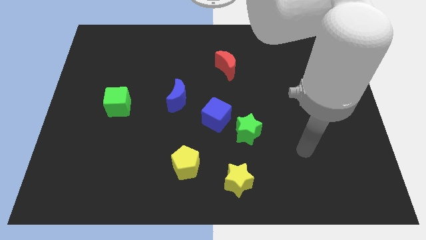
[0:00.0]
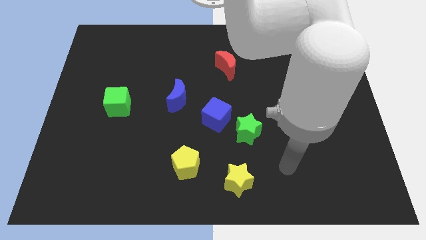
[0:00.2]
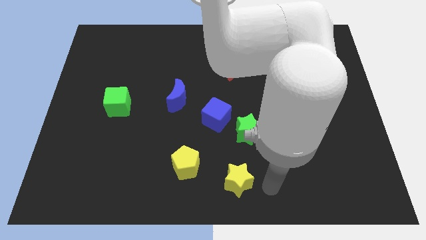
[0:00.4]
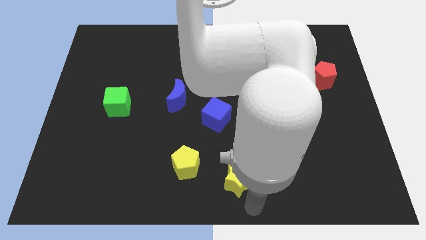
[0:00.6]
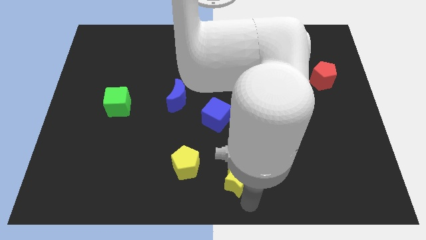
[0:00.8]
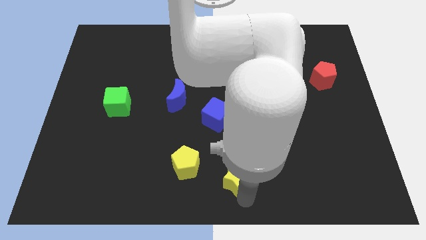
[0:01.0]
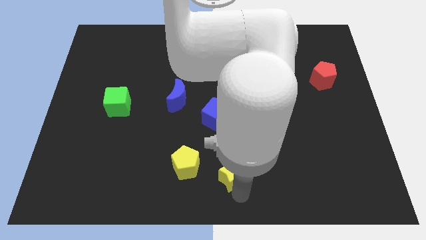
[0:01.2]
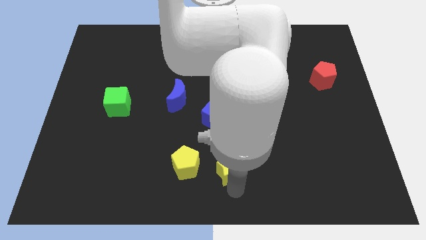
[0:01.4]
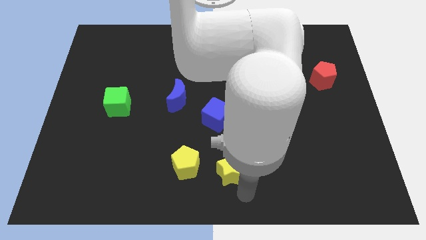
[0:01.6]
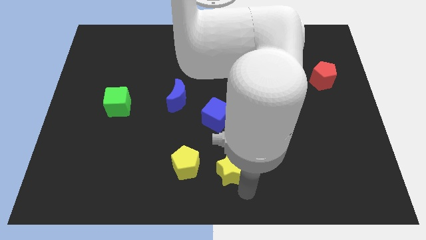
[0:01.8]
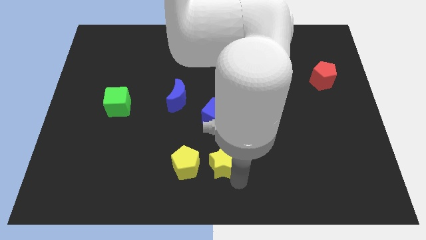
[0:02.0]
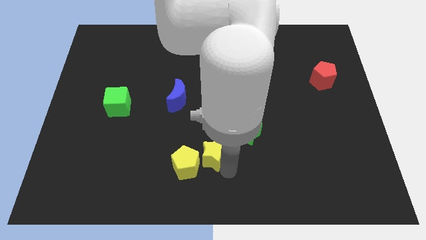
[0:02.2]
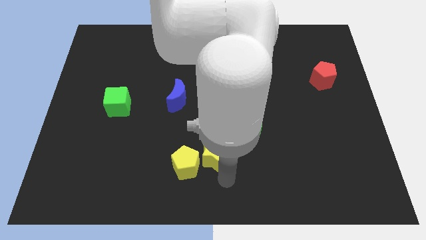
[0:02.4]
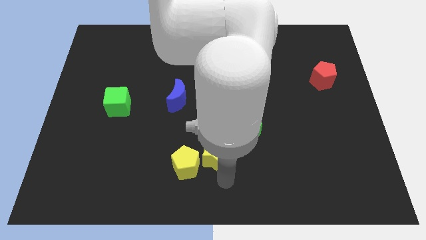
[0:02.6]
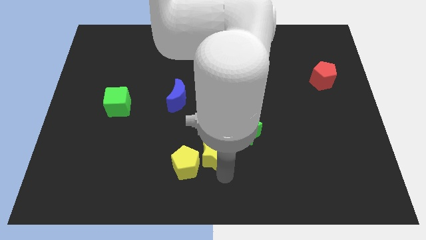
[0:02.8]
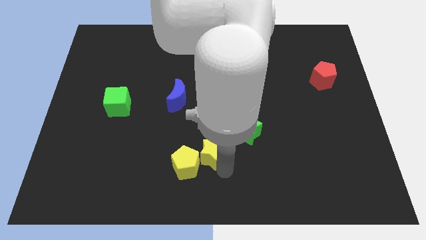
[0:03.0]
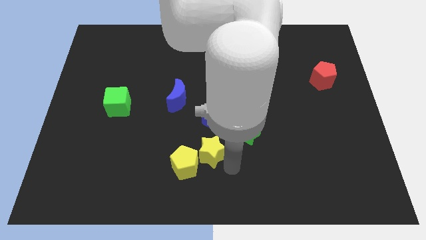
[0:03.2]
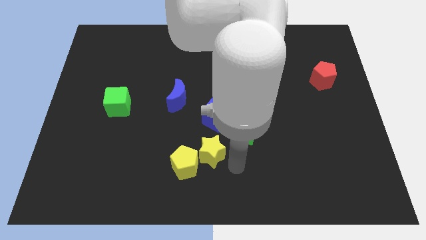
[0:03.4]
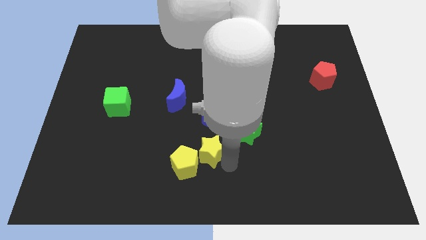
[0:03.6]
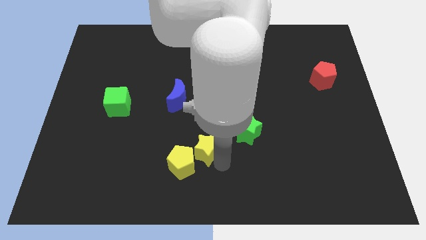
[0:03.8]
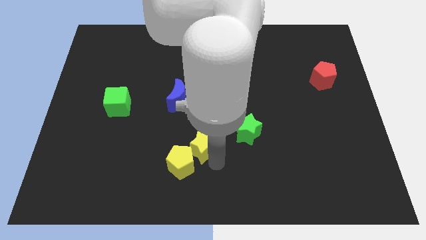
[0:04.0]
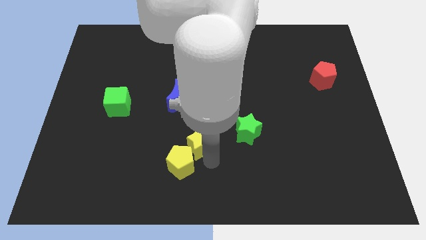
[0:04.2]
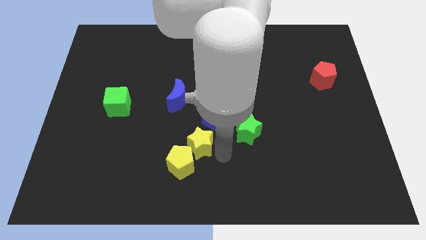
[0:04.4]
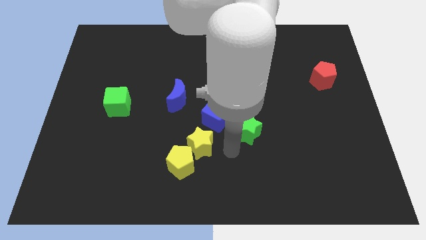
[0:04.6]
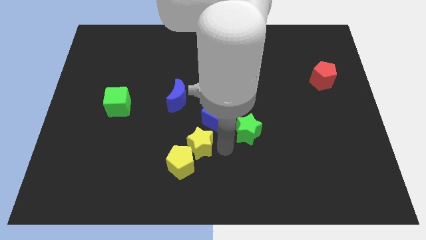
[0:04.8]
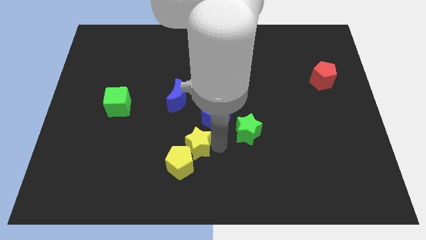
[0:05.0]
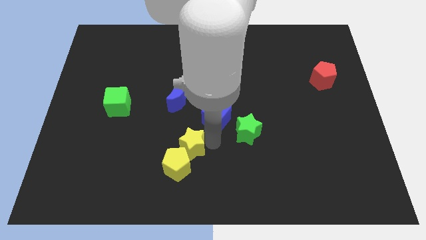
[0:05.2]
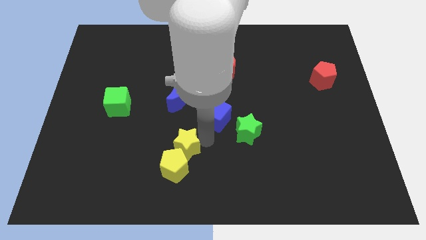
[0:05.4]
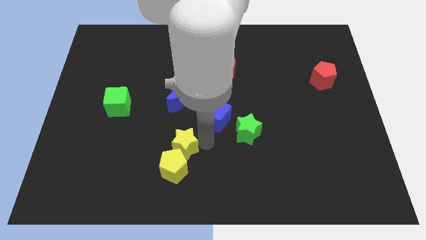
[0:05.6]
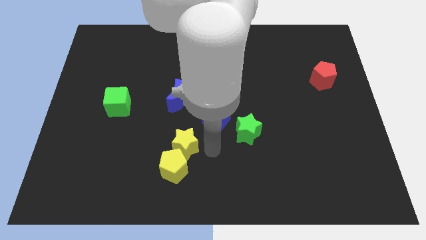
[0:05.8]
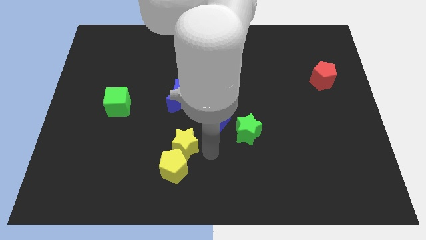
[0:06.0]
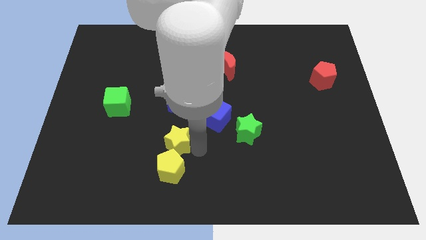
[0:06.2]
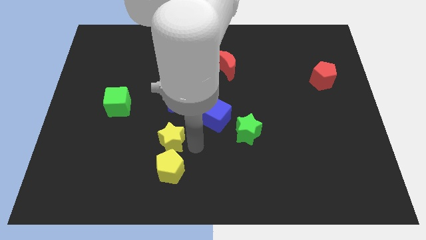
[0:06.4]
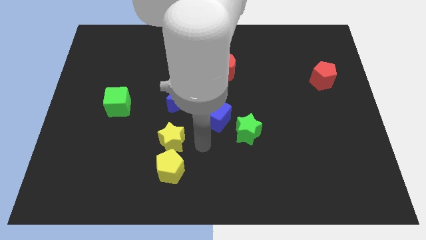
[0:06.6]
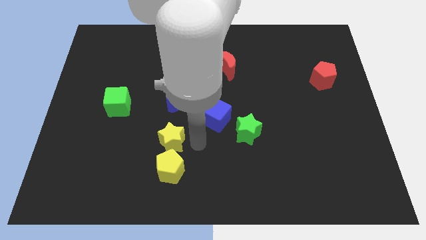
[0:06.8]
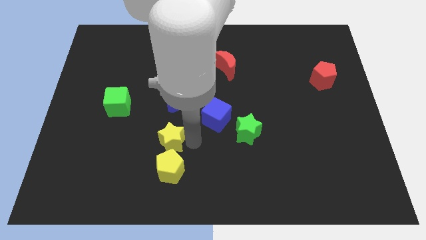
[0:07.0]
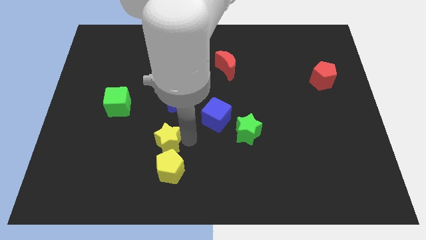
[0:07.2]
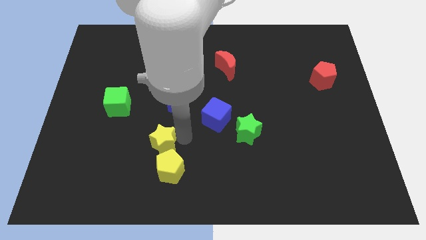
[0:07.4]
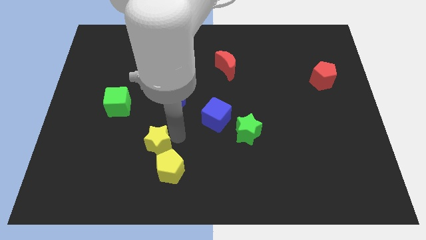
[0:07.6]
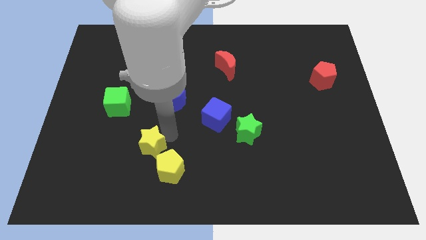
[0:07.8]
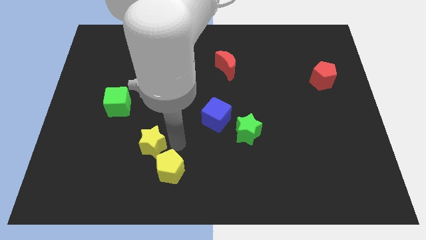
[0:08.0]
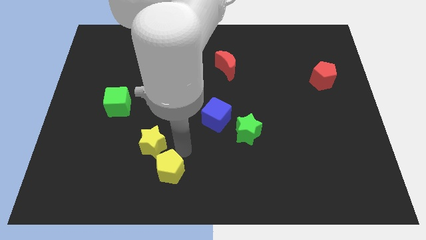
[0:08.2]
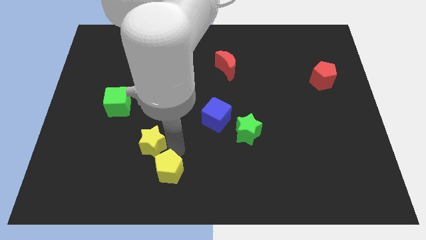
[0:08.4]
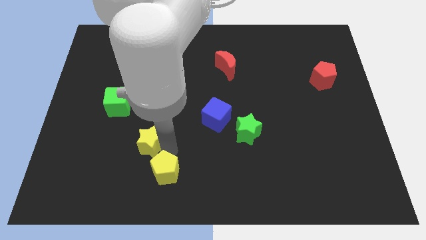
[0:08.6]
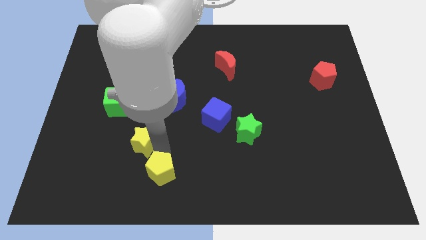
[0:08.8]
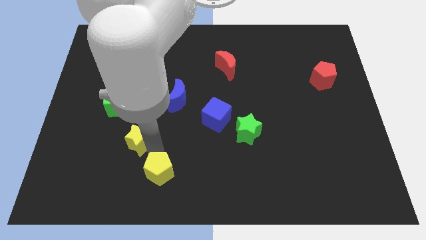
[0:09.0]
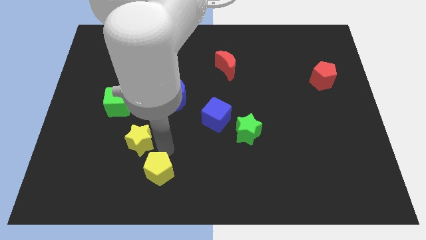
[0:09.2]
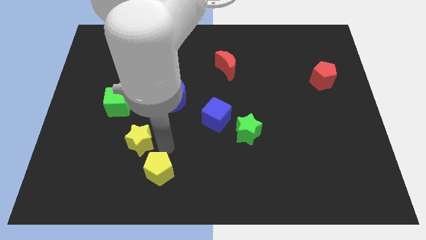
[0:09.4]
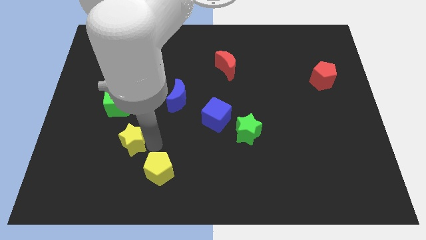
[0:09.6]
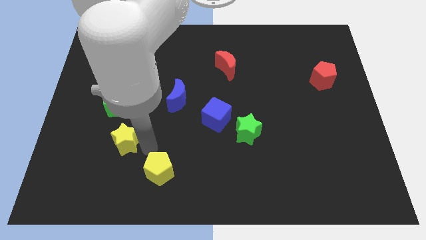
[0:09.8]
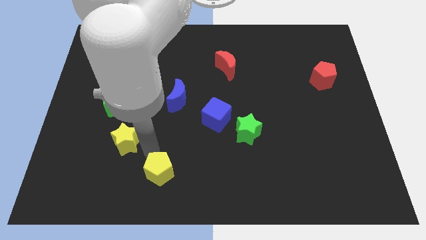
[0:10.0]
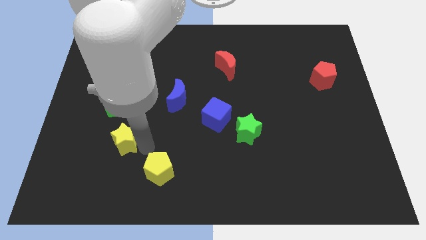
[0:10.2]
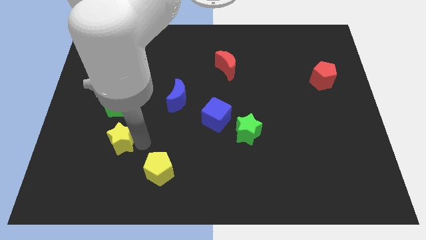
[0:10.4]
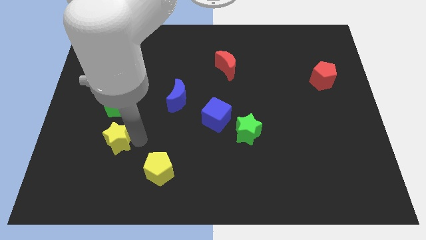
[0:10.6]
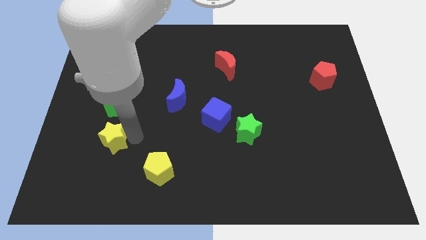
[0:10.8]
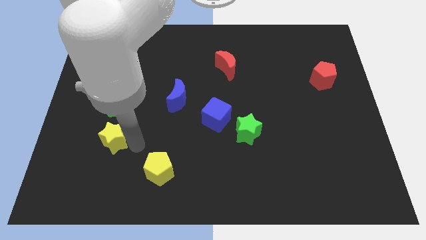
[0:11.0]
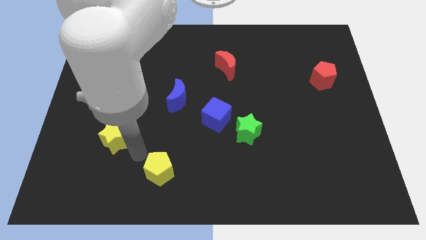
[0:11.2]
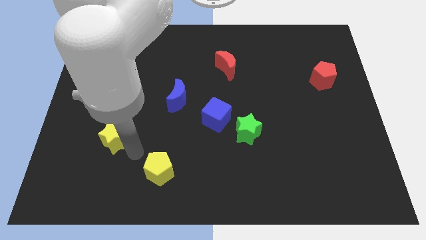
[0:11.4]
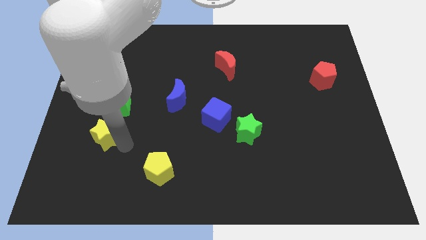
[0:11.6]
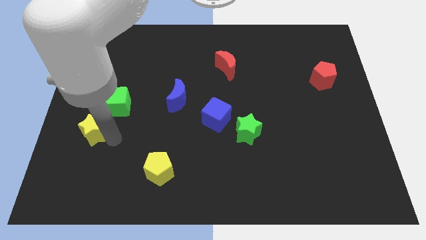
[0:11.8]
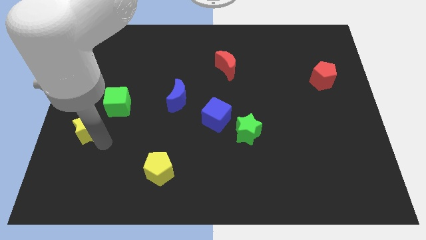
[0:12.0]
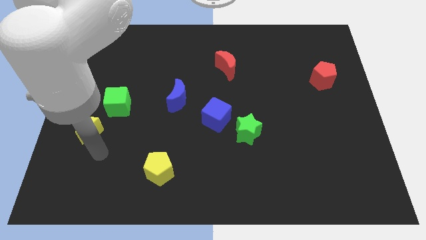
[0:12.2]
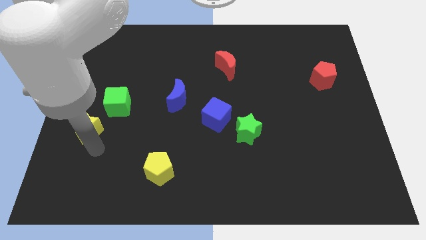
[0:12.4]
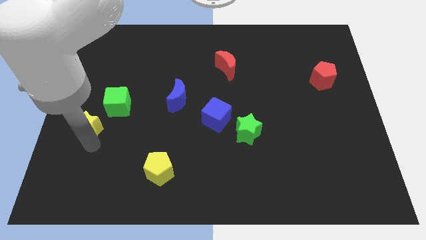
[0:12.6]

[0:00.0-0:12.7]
put the yellow star to the left side of the board
